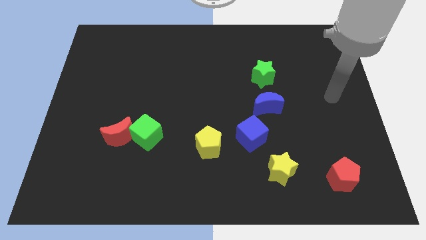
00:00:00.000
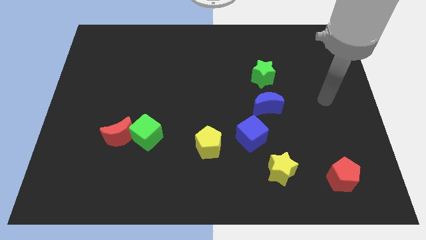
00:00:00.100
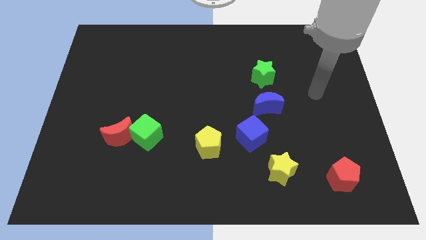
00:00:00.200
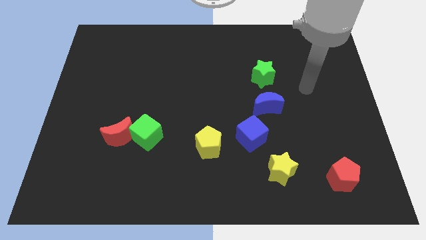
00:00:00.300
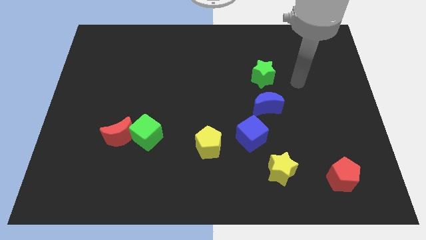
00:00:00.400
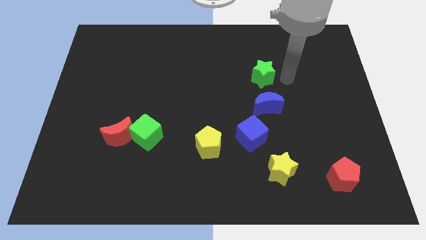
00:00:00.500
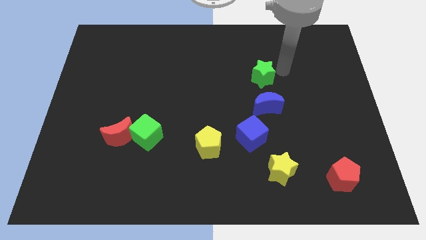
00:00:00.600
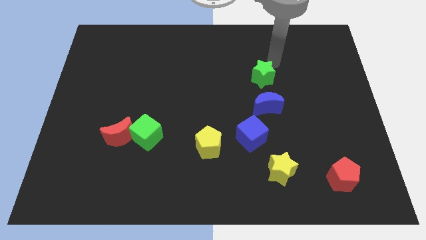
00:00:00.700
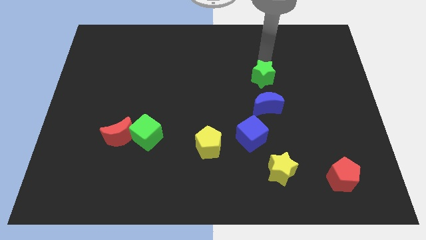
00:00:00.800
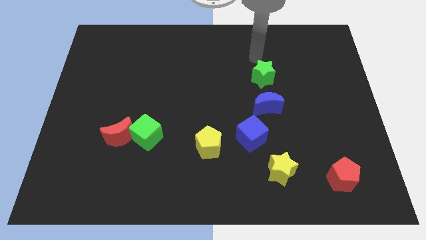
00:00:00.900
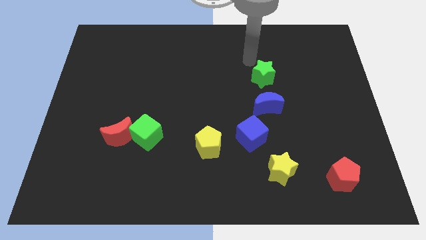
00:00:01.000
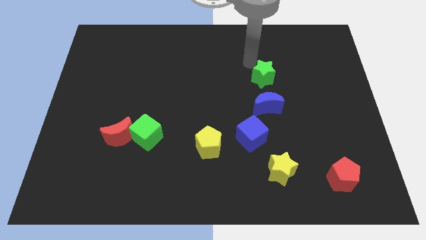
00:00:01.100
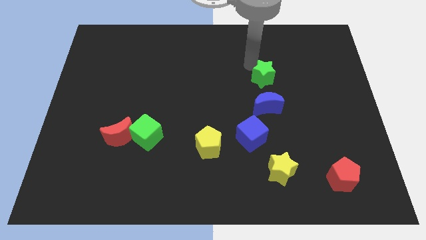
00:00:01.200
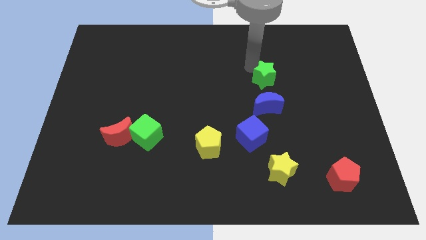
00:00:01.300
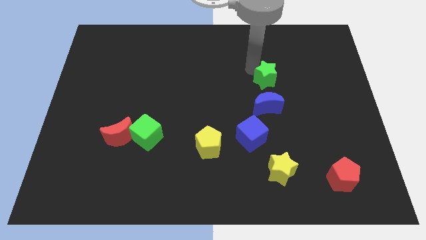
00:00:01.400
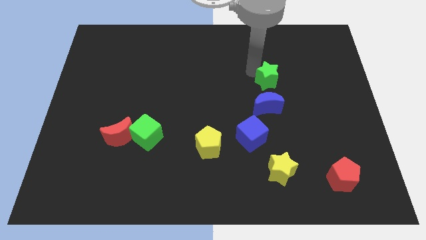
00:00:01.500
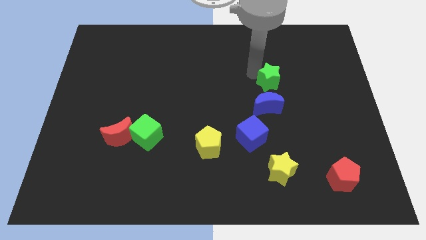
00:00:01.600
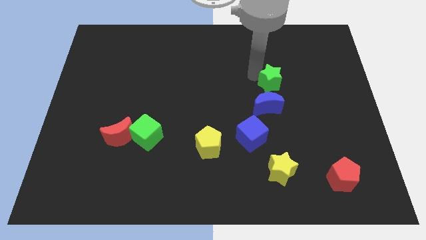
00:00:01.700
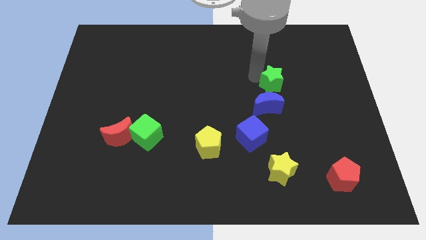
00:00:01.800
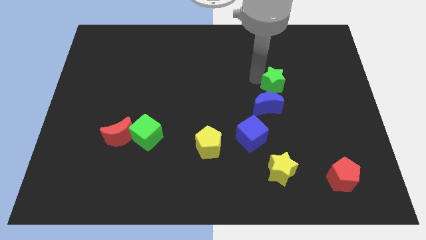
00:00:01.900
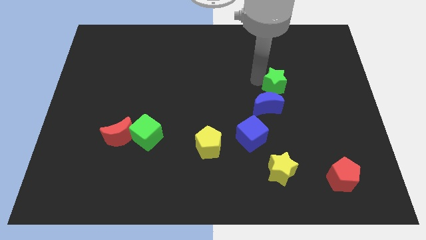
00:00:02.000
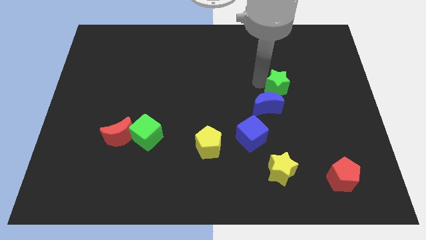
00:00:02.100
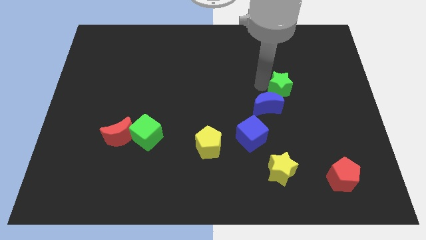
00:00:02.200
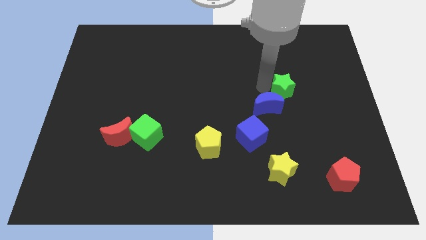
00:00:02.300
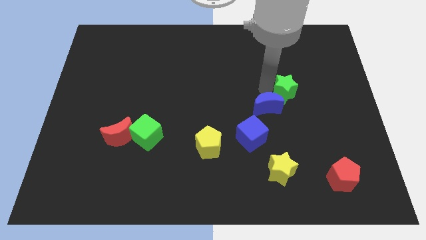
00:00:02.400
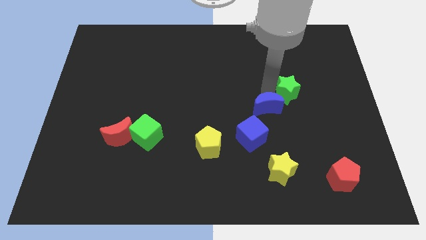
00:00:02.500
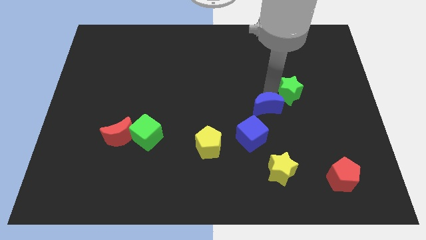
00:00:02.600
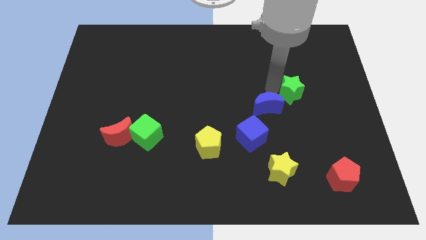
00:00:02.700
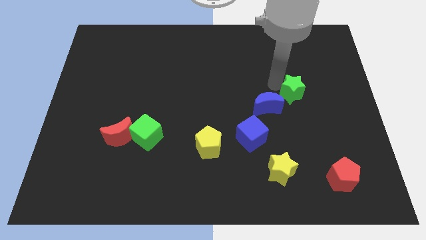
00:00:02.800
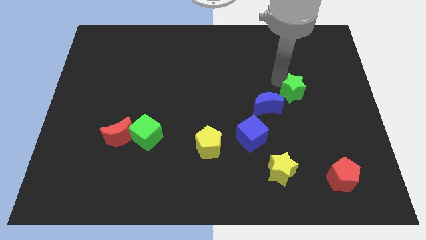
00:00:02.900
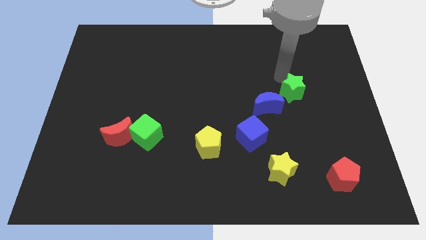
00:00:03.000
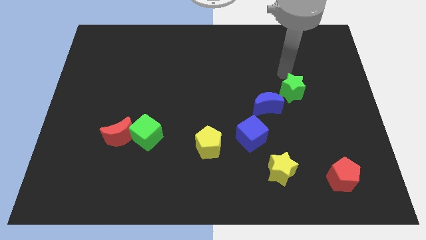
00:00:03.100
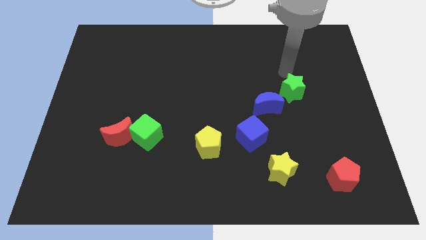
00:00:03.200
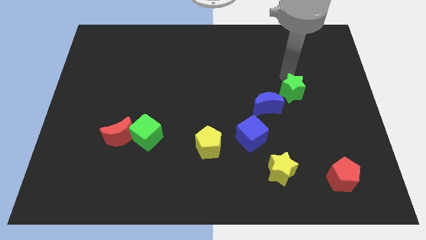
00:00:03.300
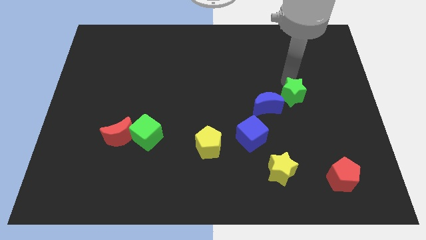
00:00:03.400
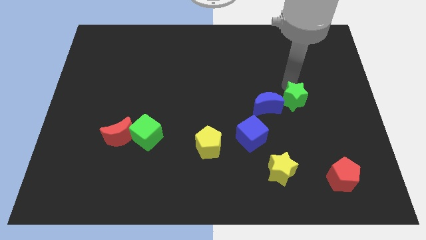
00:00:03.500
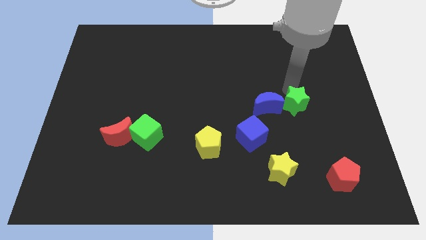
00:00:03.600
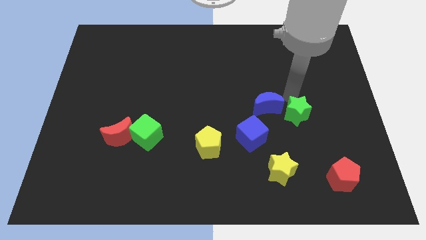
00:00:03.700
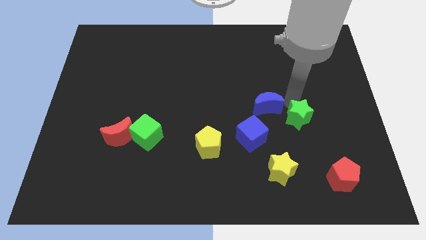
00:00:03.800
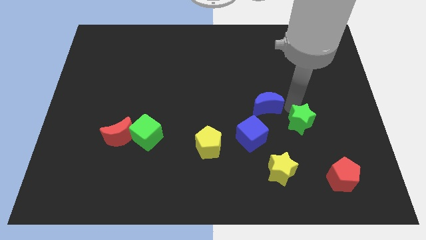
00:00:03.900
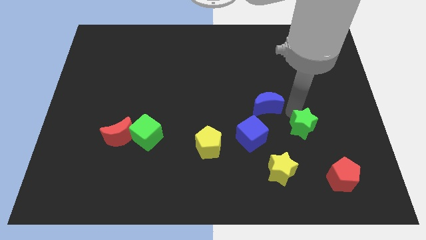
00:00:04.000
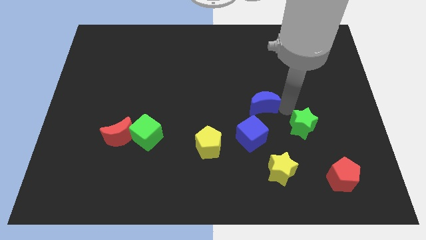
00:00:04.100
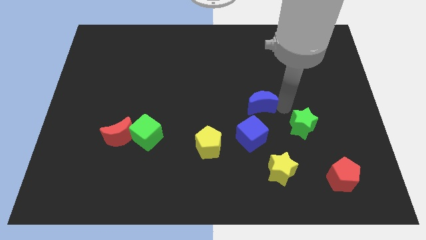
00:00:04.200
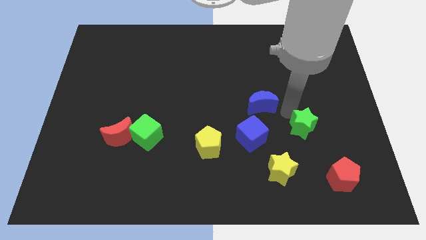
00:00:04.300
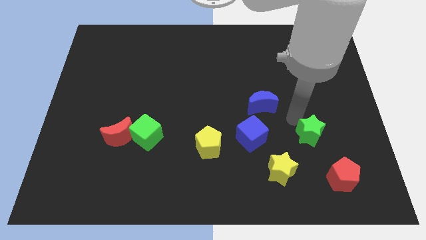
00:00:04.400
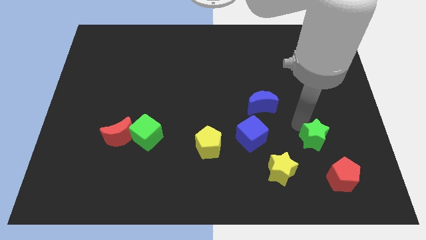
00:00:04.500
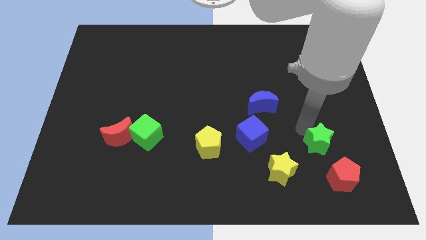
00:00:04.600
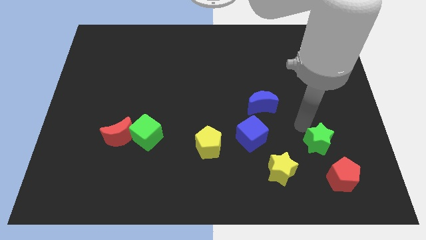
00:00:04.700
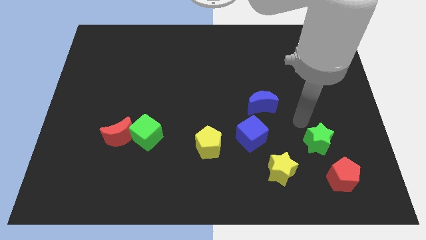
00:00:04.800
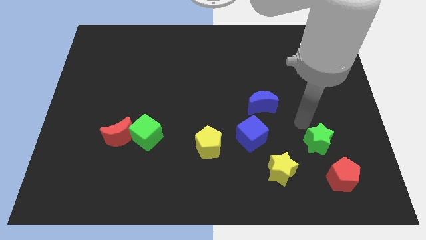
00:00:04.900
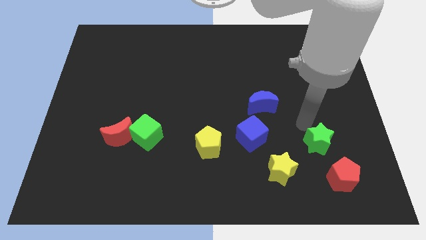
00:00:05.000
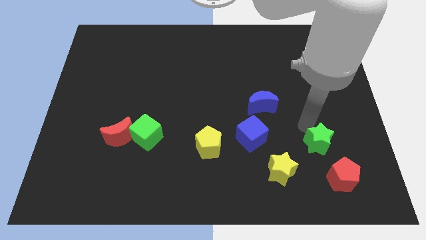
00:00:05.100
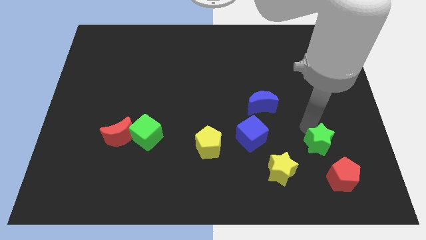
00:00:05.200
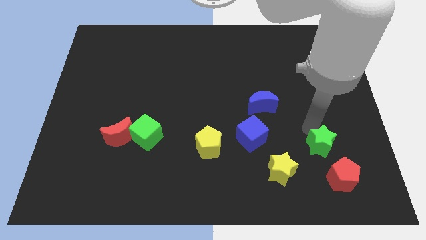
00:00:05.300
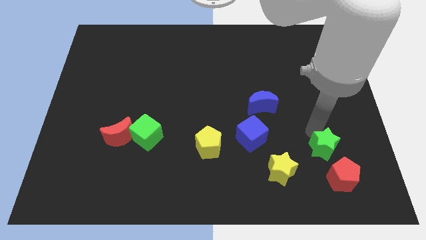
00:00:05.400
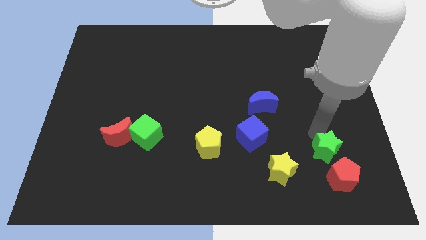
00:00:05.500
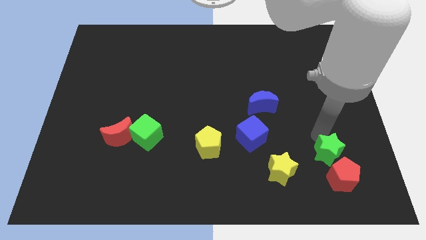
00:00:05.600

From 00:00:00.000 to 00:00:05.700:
move the green star towards the red pentagon

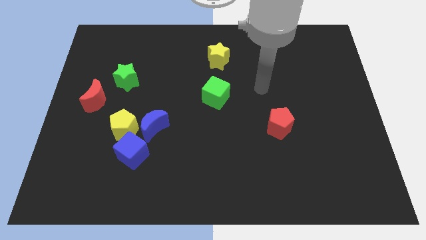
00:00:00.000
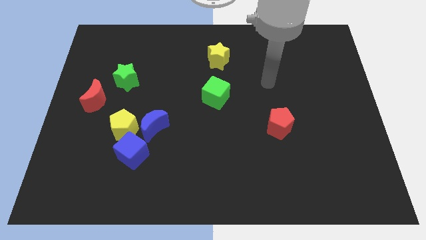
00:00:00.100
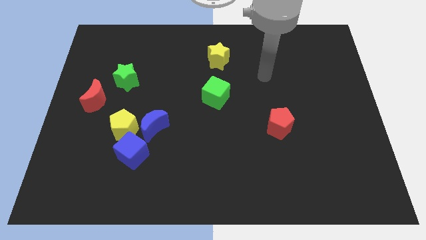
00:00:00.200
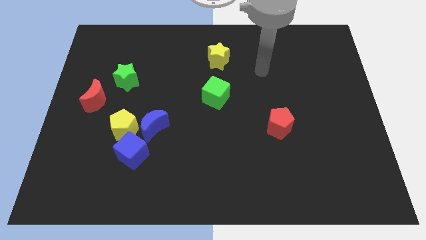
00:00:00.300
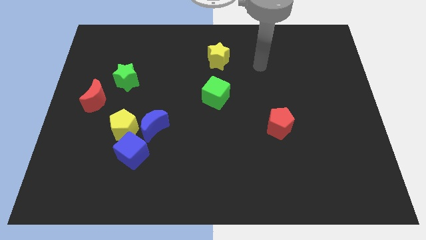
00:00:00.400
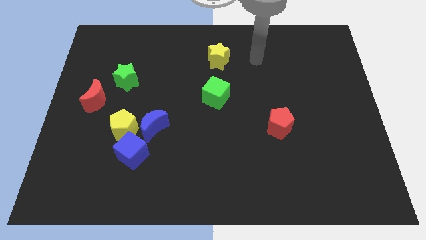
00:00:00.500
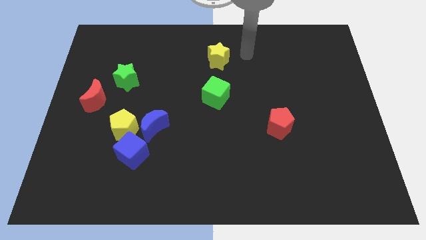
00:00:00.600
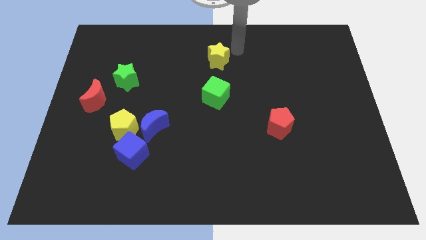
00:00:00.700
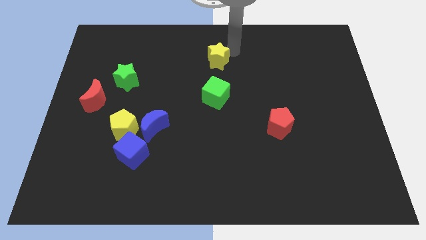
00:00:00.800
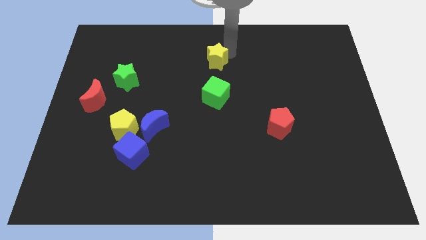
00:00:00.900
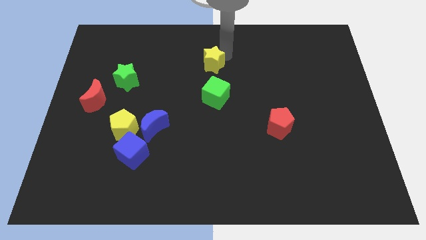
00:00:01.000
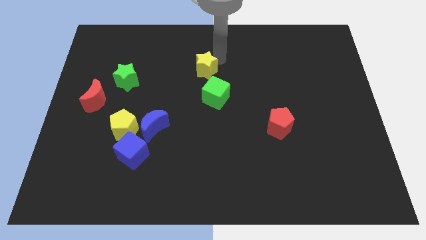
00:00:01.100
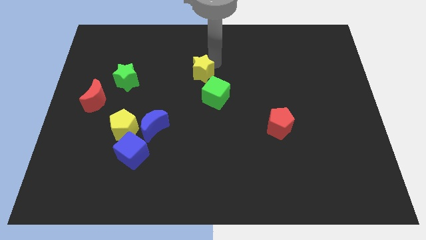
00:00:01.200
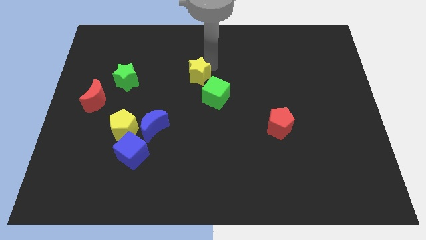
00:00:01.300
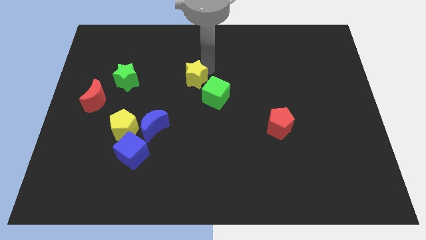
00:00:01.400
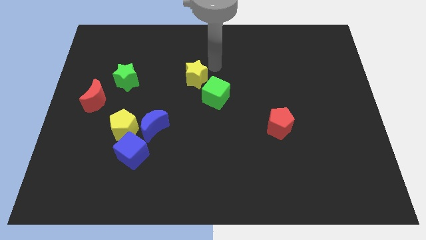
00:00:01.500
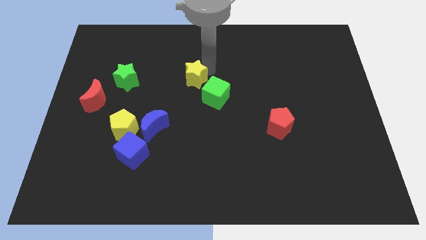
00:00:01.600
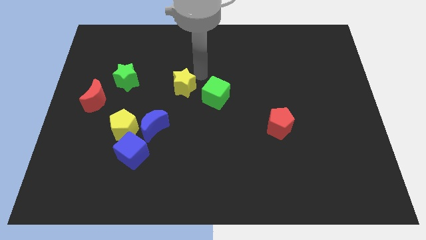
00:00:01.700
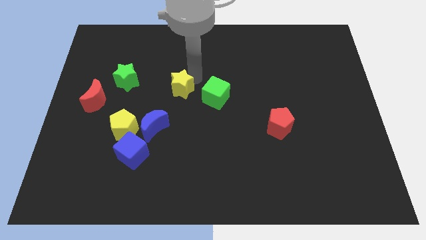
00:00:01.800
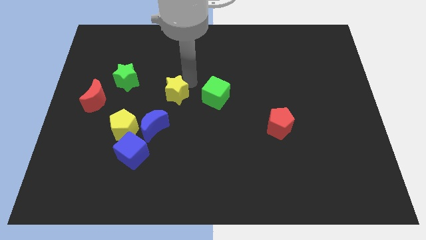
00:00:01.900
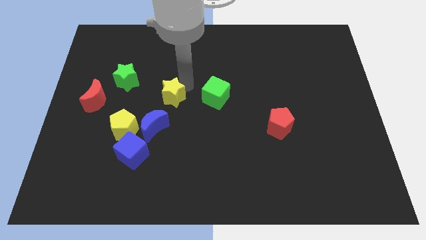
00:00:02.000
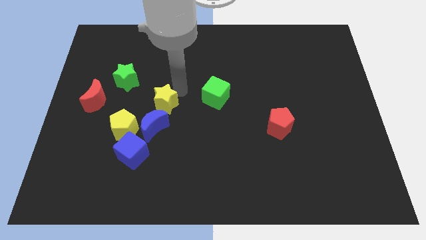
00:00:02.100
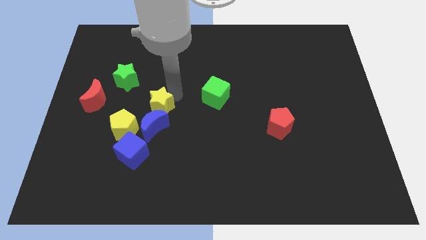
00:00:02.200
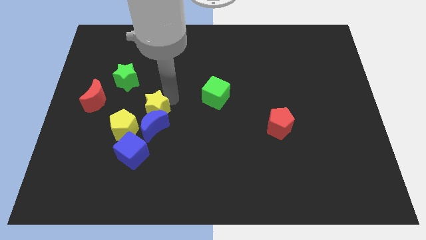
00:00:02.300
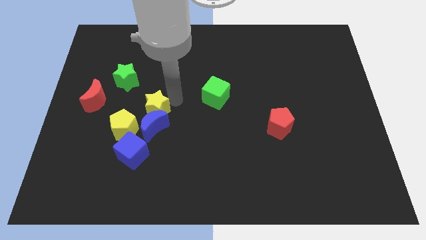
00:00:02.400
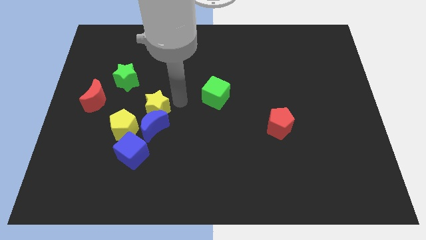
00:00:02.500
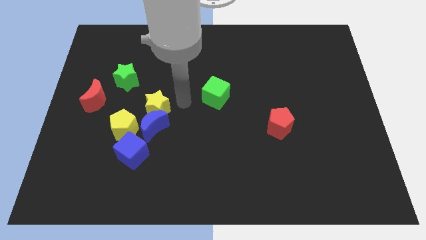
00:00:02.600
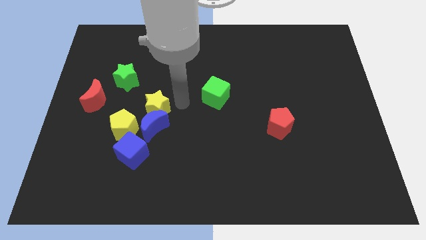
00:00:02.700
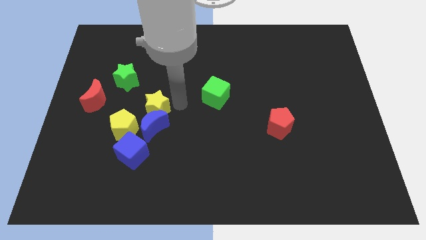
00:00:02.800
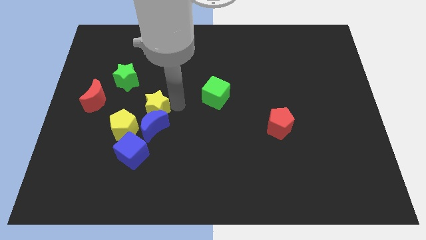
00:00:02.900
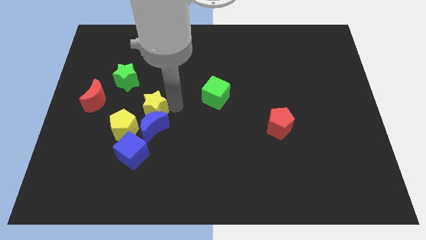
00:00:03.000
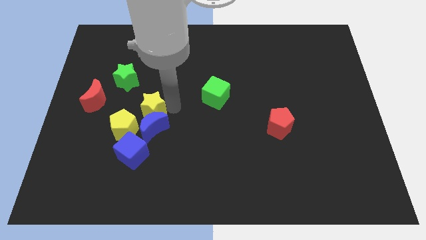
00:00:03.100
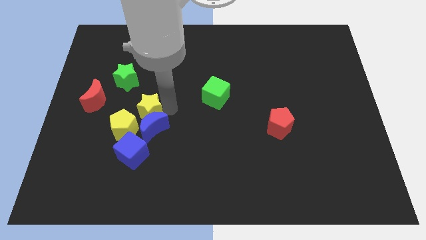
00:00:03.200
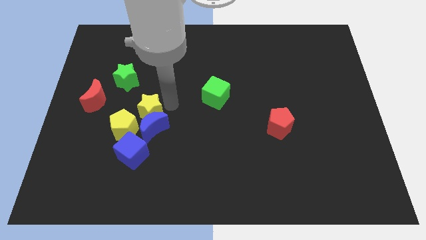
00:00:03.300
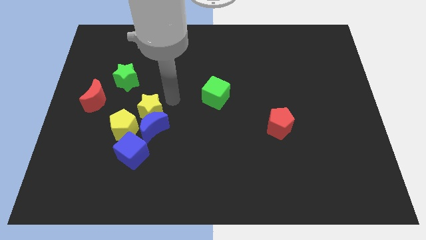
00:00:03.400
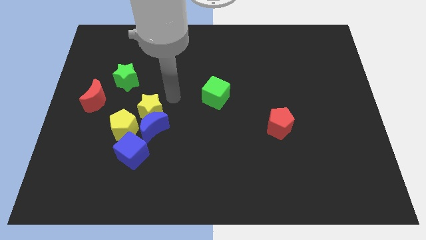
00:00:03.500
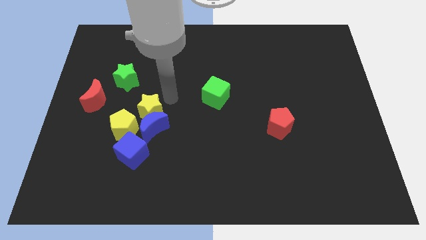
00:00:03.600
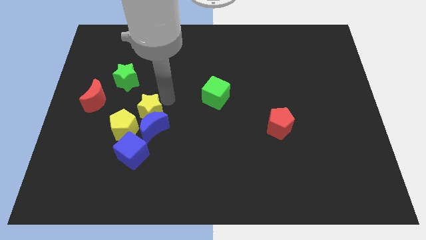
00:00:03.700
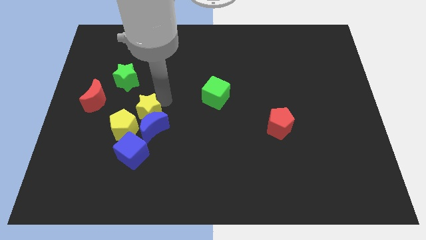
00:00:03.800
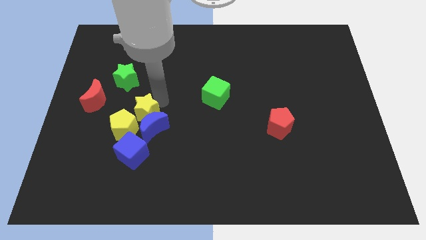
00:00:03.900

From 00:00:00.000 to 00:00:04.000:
push the yellow star to the yellow pentagon
